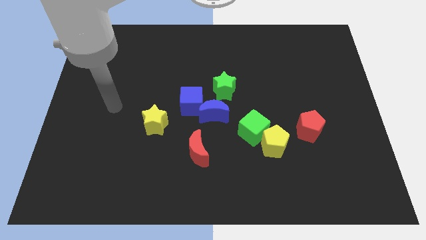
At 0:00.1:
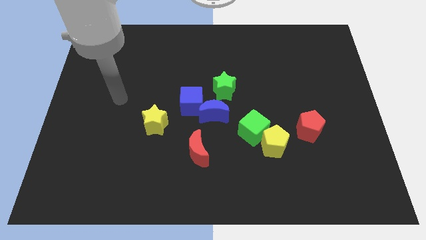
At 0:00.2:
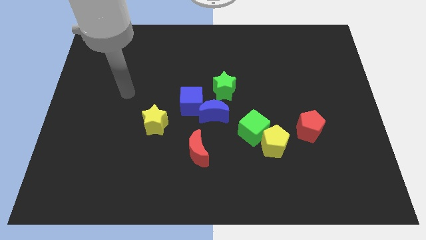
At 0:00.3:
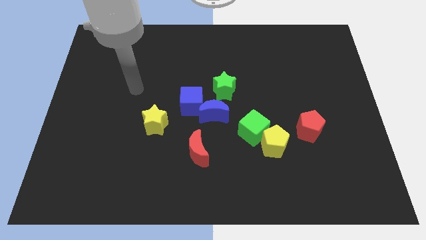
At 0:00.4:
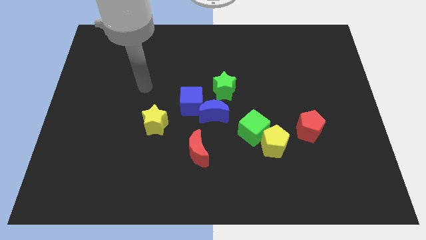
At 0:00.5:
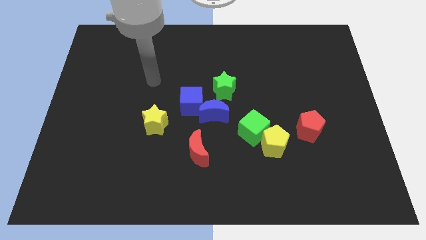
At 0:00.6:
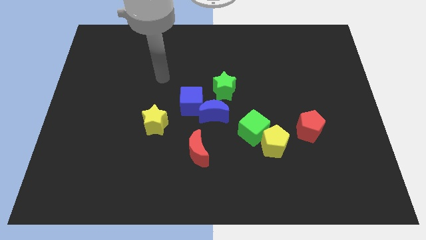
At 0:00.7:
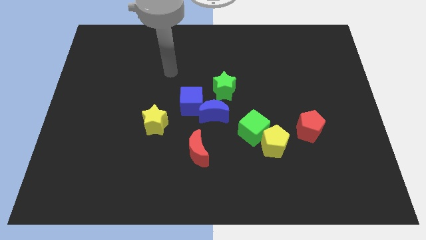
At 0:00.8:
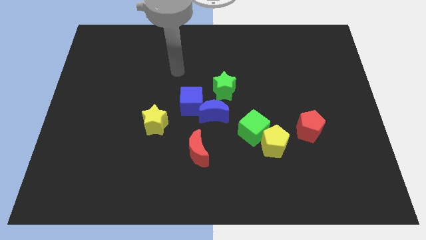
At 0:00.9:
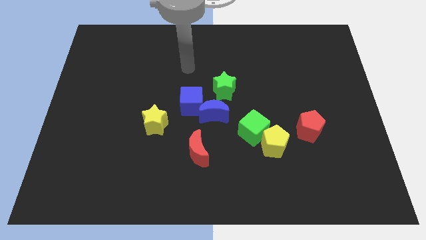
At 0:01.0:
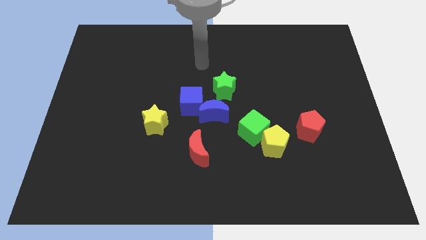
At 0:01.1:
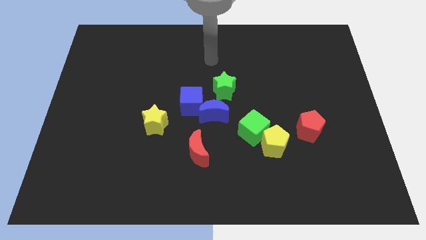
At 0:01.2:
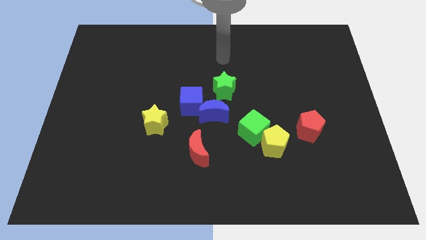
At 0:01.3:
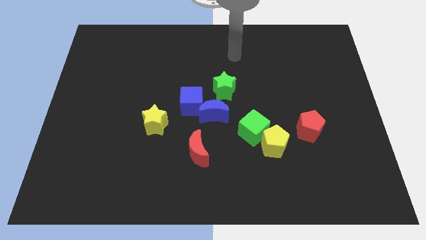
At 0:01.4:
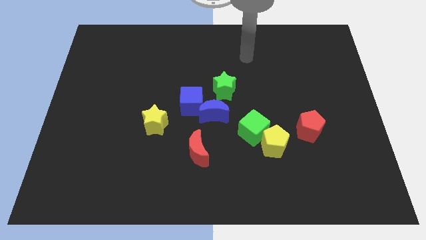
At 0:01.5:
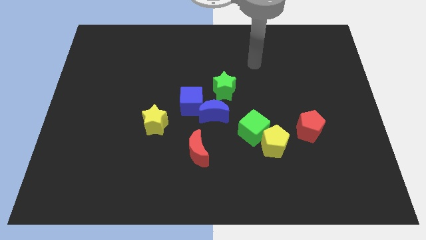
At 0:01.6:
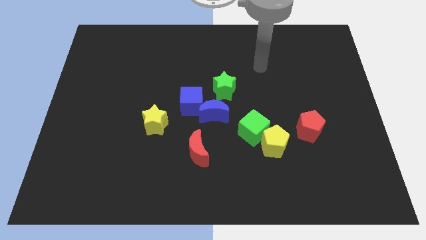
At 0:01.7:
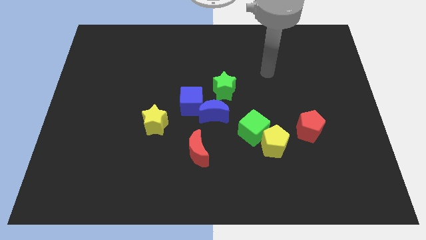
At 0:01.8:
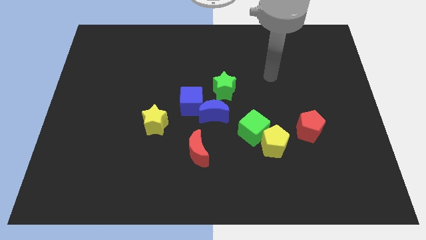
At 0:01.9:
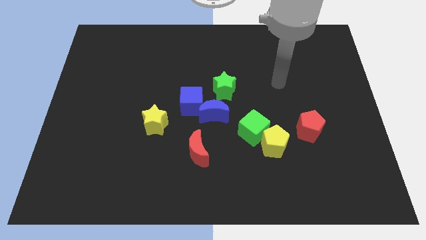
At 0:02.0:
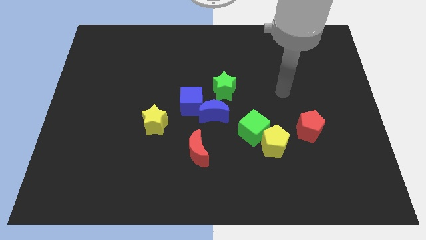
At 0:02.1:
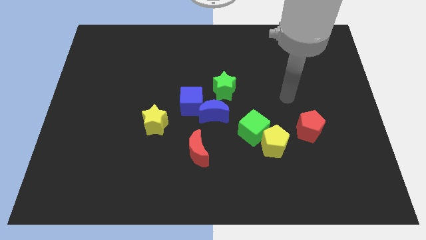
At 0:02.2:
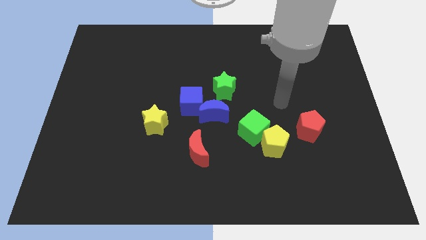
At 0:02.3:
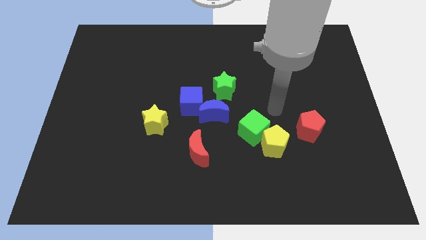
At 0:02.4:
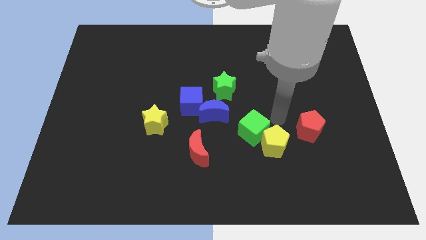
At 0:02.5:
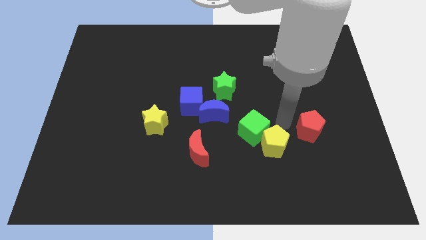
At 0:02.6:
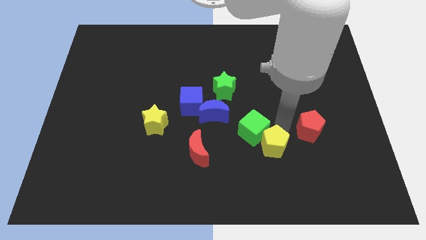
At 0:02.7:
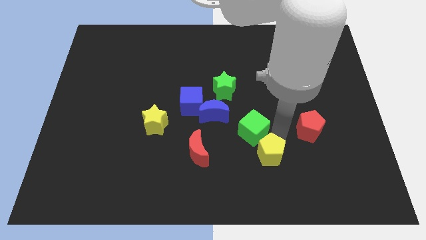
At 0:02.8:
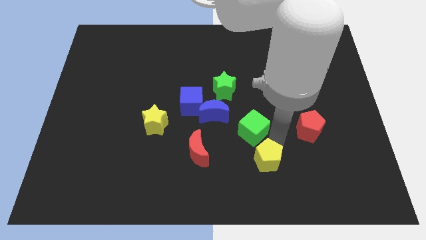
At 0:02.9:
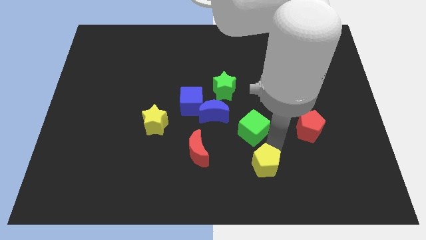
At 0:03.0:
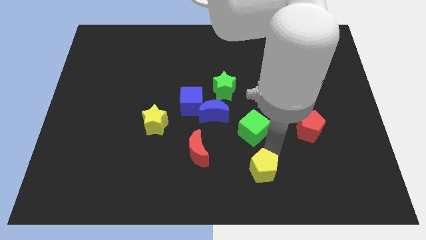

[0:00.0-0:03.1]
separate the yellow pentagon from the green cube and red pentagon

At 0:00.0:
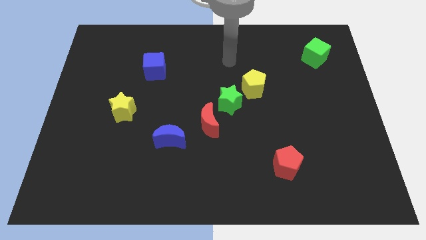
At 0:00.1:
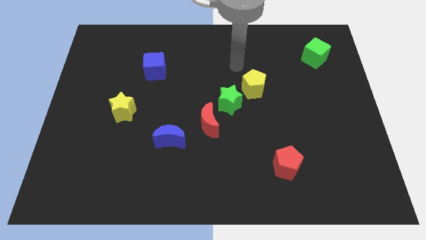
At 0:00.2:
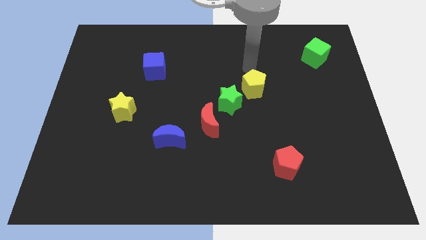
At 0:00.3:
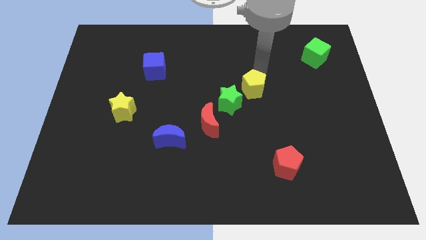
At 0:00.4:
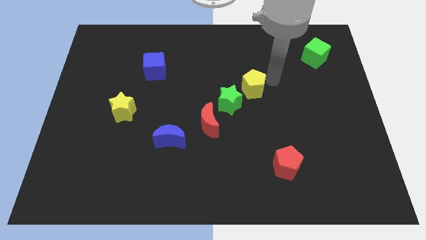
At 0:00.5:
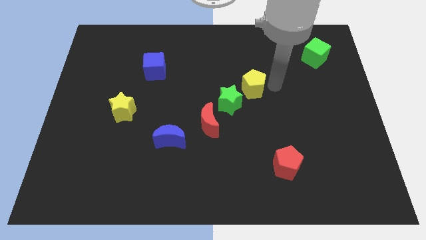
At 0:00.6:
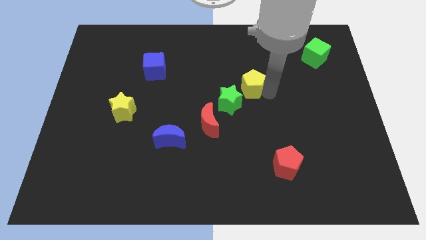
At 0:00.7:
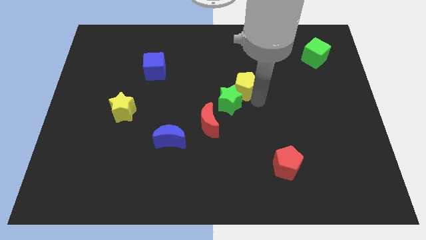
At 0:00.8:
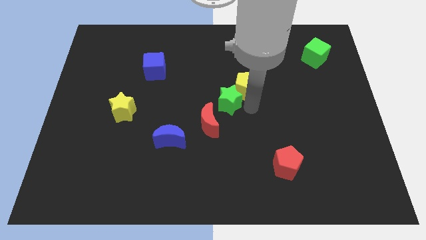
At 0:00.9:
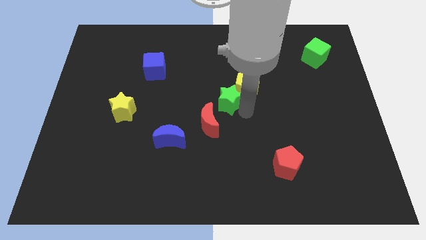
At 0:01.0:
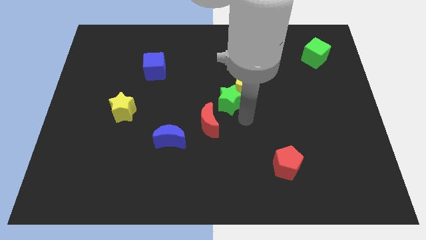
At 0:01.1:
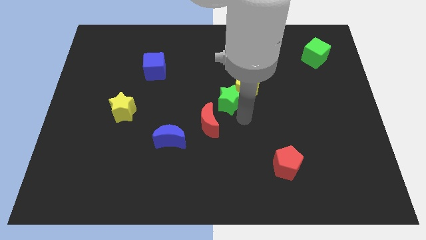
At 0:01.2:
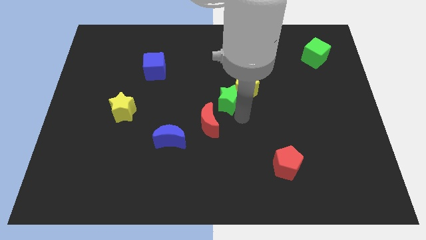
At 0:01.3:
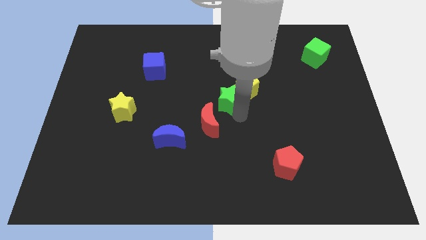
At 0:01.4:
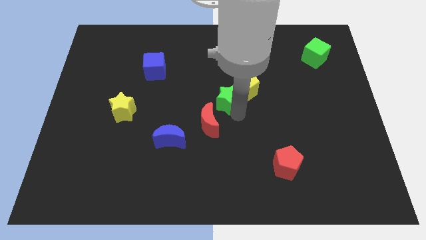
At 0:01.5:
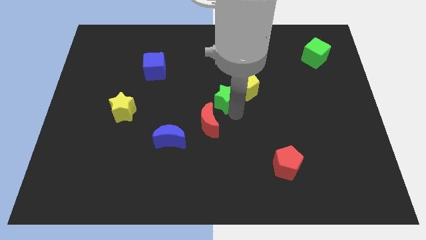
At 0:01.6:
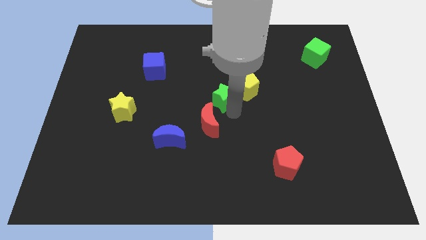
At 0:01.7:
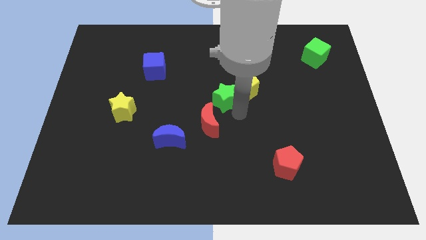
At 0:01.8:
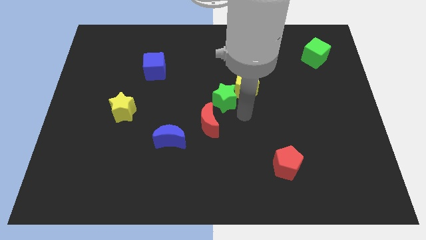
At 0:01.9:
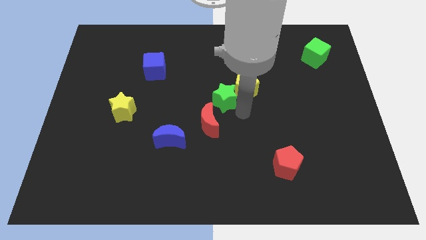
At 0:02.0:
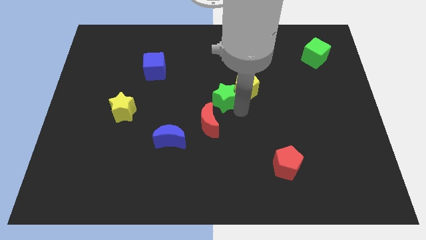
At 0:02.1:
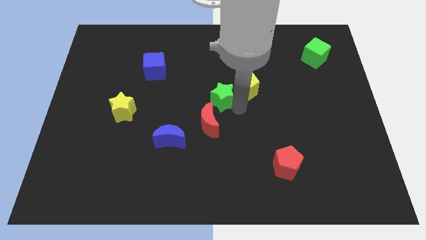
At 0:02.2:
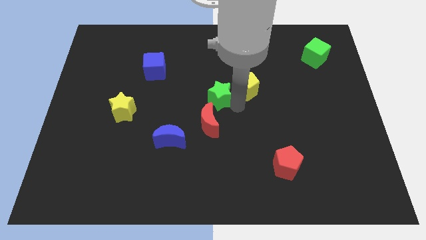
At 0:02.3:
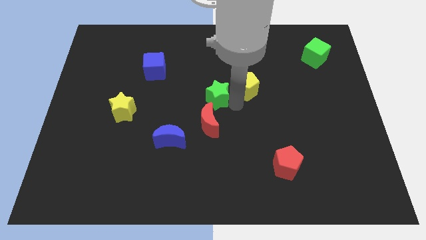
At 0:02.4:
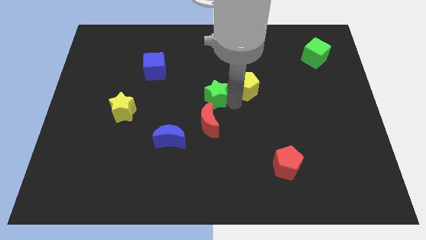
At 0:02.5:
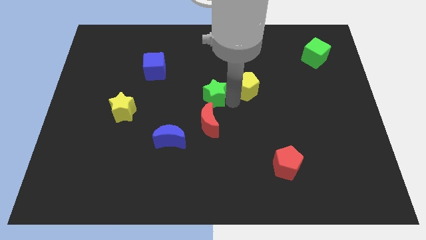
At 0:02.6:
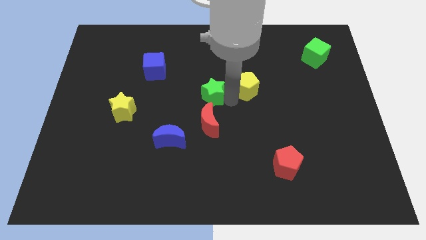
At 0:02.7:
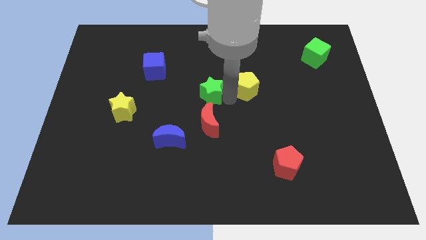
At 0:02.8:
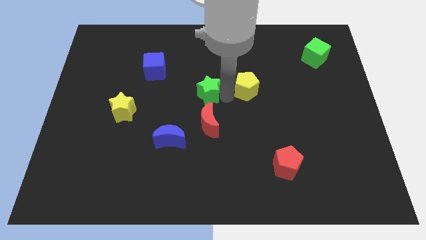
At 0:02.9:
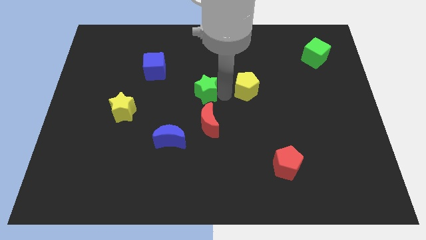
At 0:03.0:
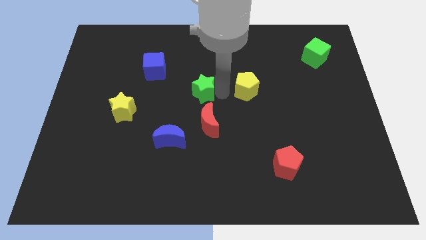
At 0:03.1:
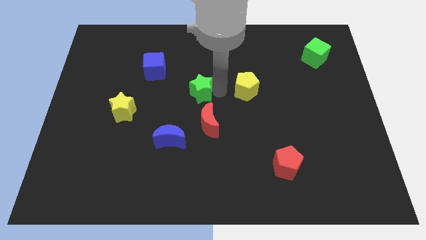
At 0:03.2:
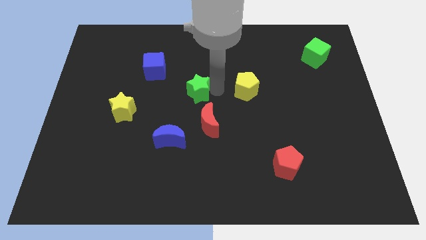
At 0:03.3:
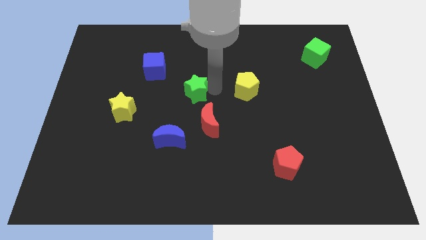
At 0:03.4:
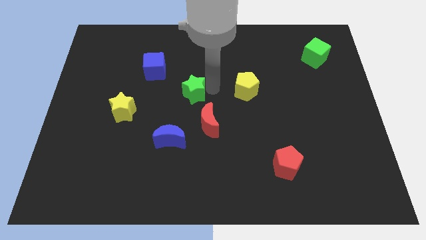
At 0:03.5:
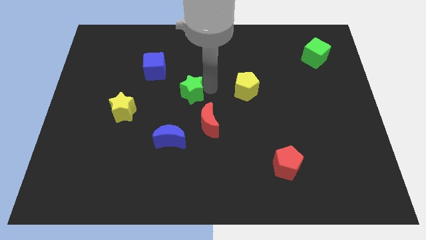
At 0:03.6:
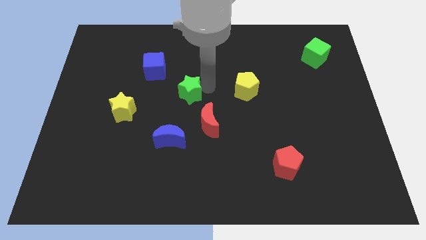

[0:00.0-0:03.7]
pull the green star apart from the red moon and yellow pentagon

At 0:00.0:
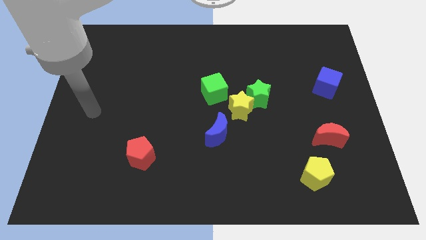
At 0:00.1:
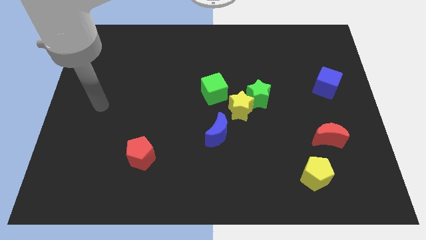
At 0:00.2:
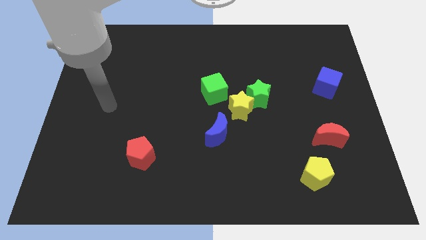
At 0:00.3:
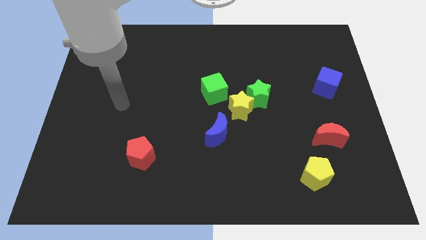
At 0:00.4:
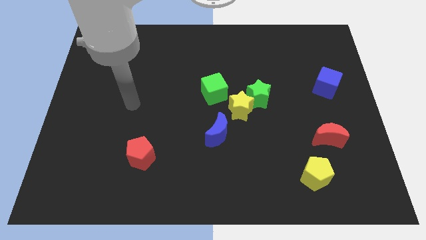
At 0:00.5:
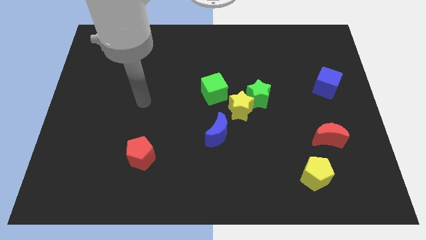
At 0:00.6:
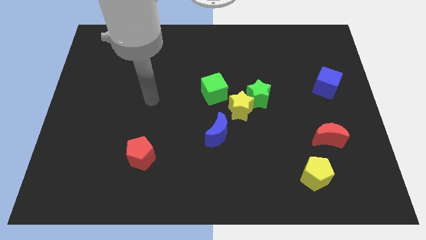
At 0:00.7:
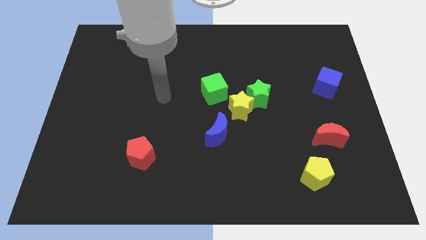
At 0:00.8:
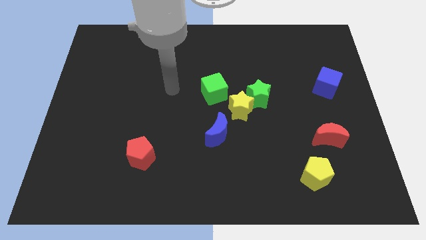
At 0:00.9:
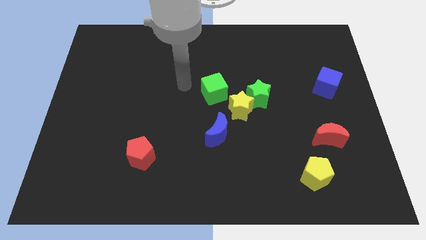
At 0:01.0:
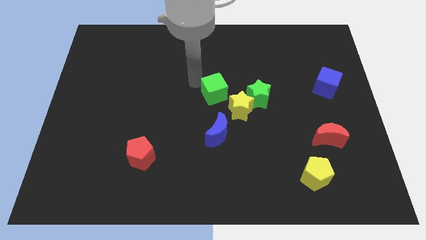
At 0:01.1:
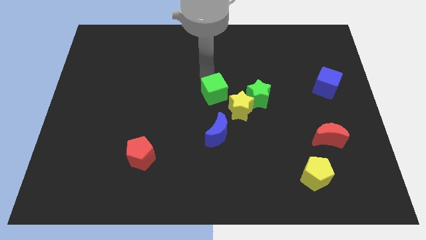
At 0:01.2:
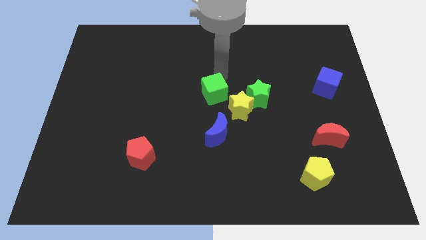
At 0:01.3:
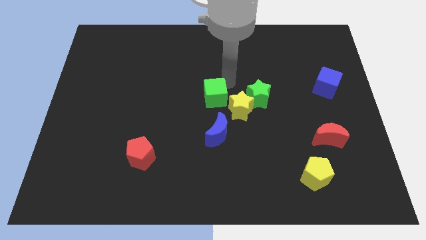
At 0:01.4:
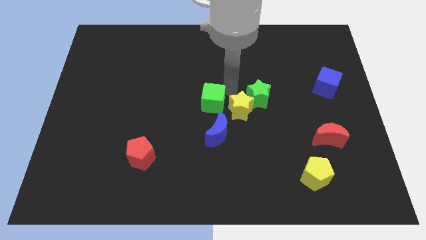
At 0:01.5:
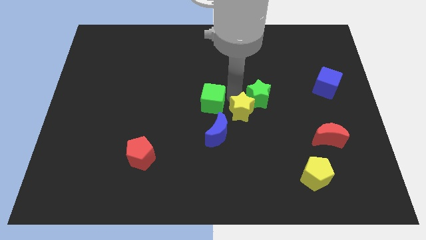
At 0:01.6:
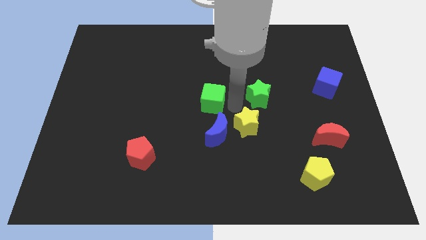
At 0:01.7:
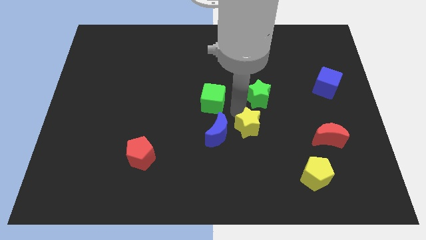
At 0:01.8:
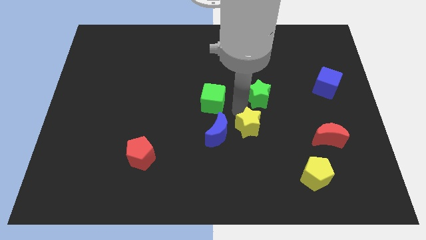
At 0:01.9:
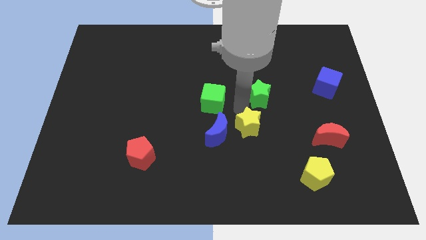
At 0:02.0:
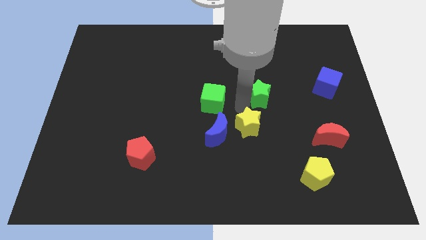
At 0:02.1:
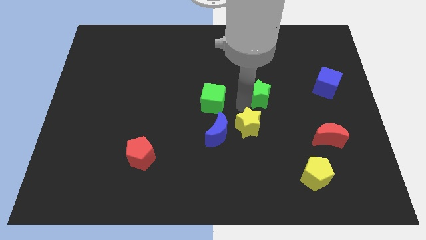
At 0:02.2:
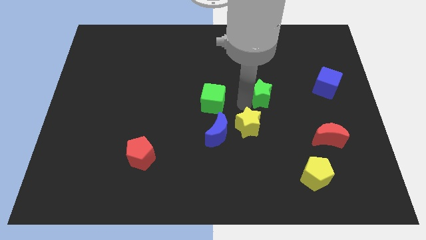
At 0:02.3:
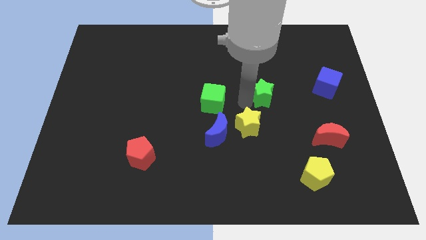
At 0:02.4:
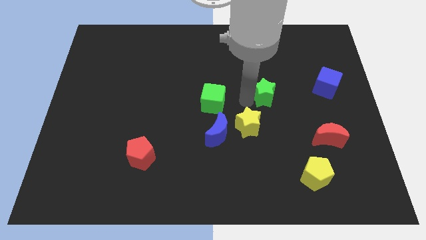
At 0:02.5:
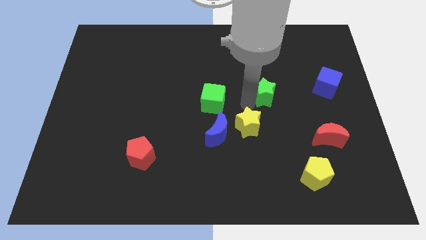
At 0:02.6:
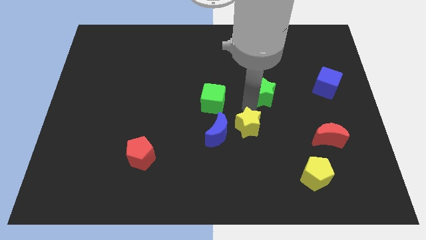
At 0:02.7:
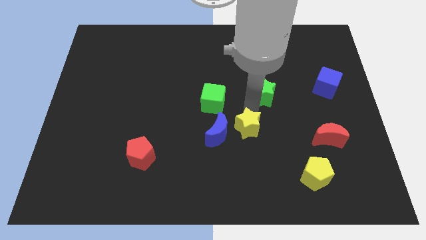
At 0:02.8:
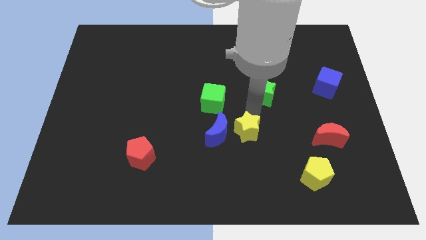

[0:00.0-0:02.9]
pull the green star apart from the yellow star
